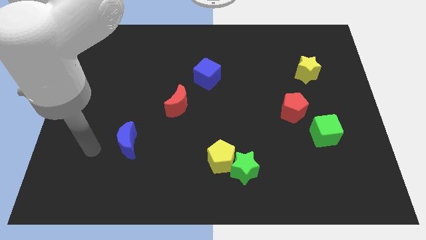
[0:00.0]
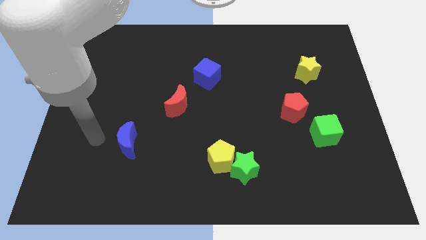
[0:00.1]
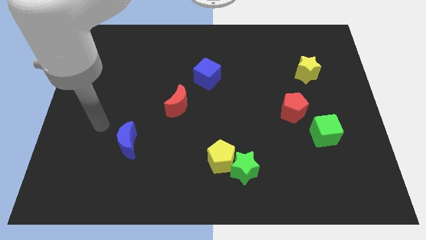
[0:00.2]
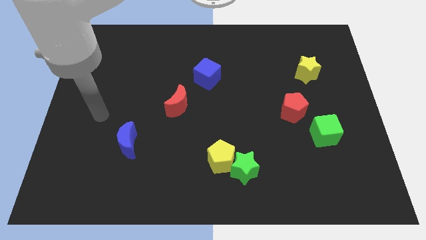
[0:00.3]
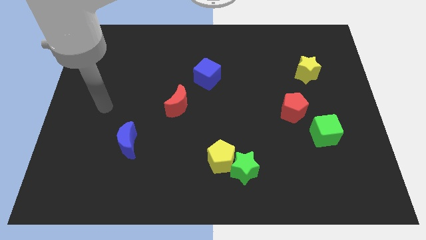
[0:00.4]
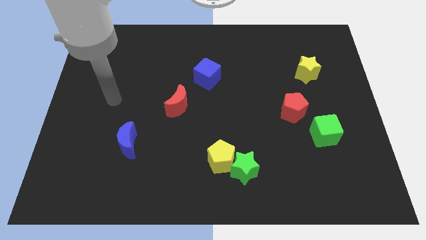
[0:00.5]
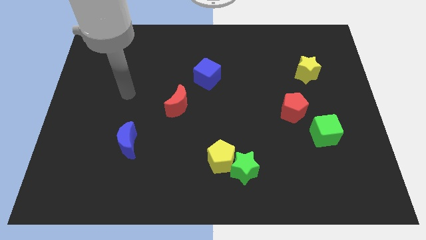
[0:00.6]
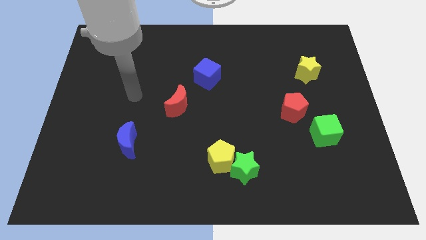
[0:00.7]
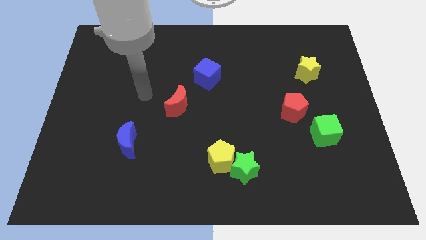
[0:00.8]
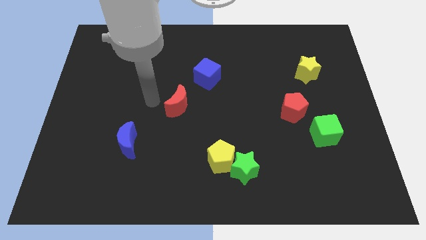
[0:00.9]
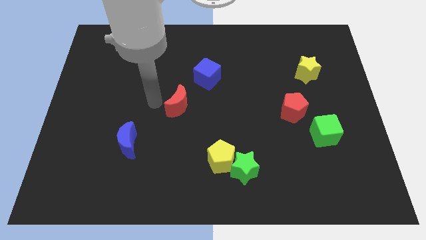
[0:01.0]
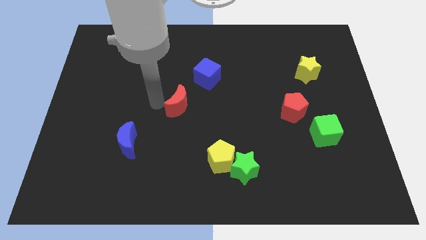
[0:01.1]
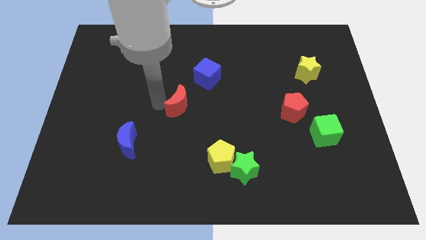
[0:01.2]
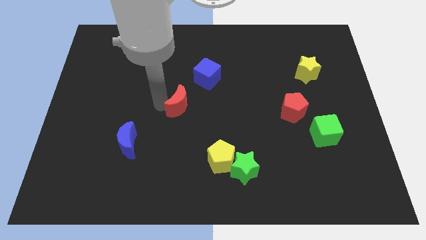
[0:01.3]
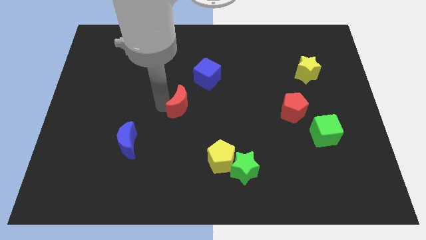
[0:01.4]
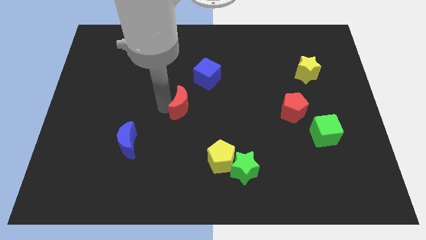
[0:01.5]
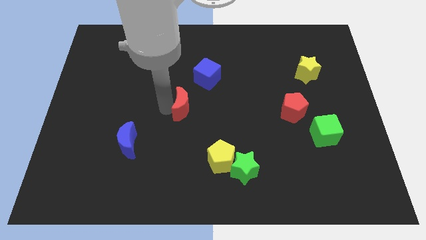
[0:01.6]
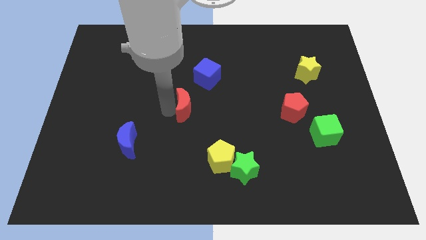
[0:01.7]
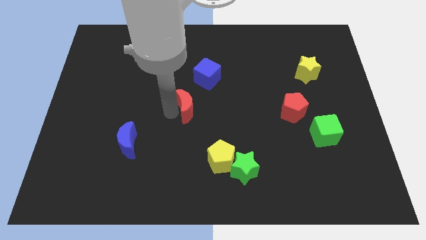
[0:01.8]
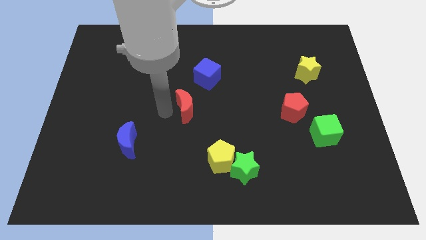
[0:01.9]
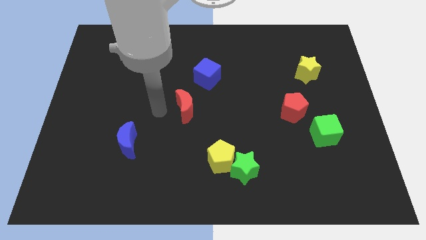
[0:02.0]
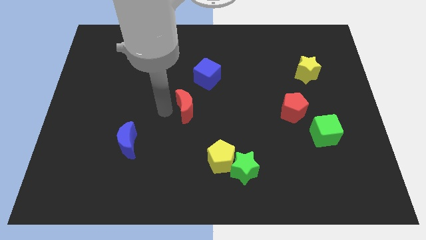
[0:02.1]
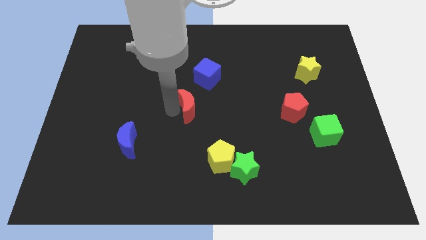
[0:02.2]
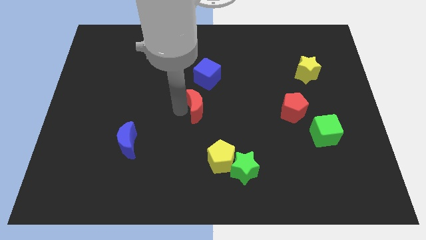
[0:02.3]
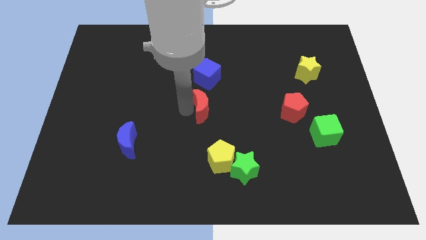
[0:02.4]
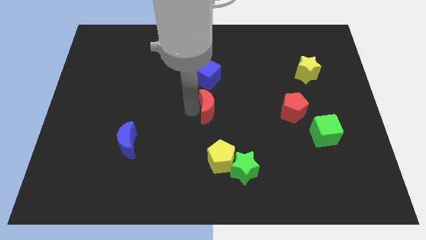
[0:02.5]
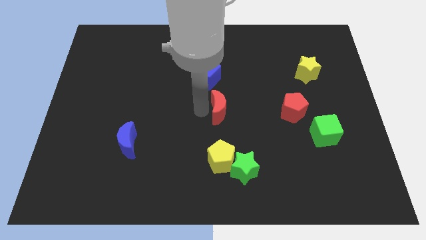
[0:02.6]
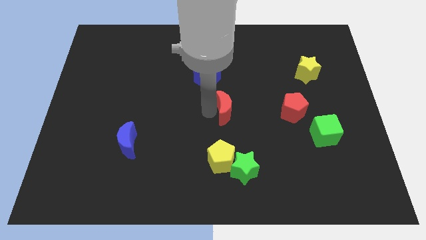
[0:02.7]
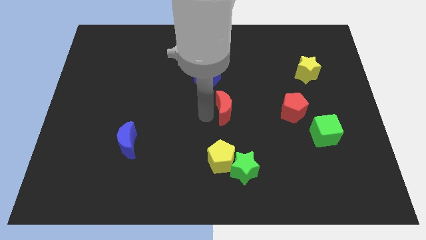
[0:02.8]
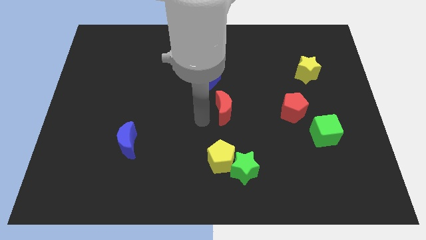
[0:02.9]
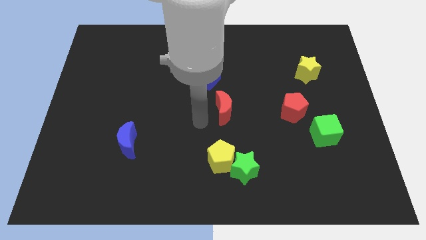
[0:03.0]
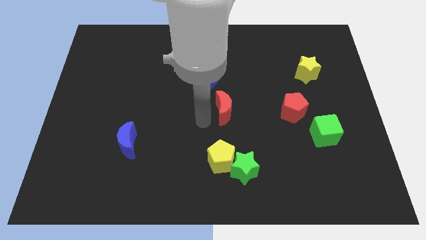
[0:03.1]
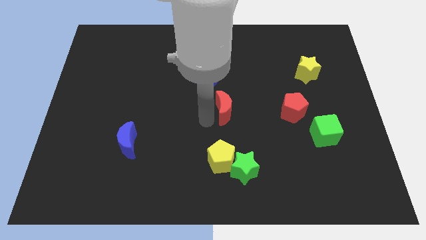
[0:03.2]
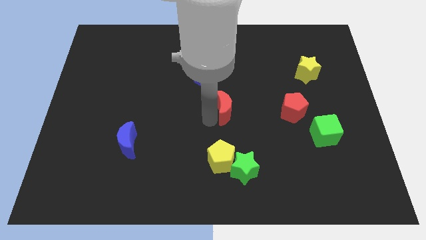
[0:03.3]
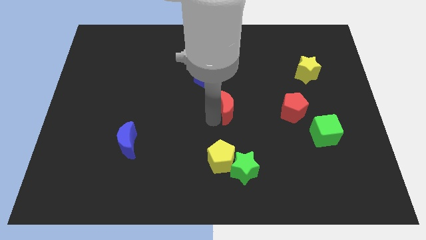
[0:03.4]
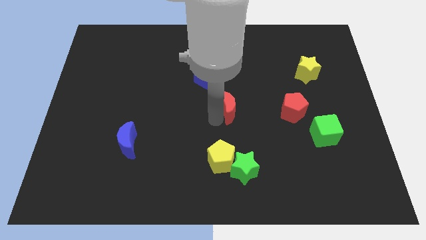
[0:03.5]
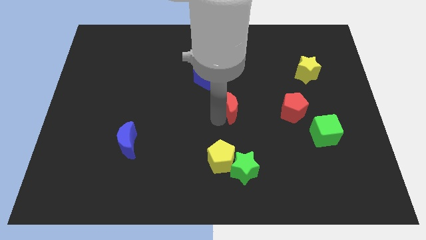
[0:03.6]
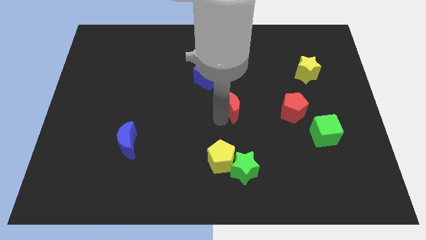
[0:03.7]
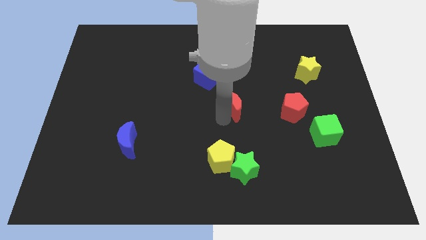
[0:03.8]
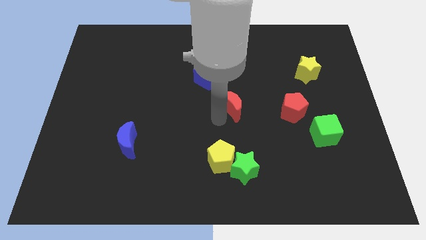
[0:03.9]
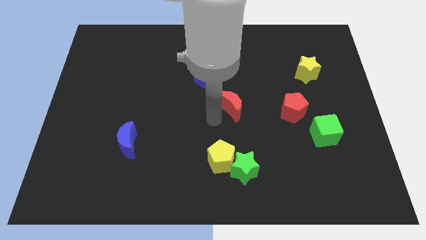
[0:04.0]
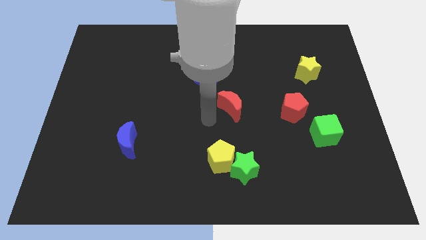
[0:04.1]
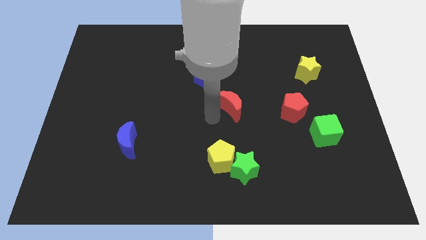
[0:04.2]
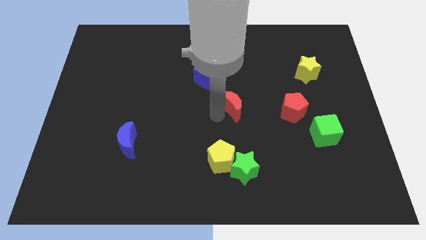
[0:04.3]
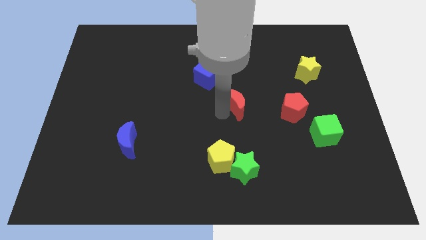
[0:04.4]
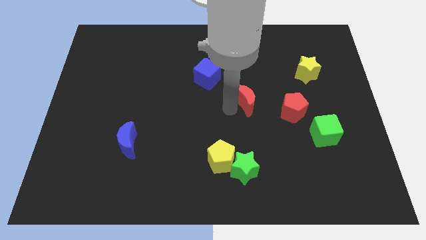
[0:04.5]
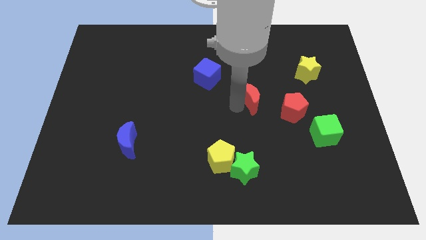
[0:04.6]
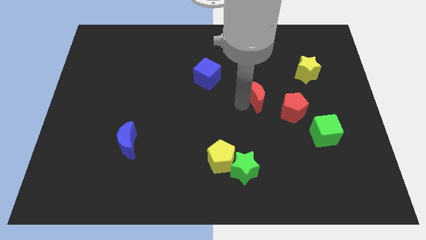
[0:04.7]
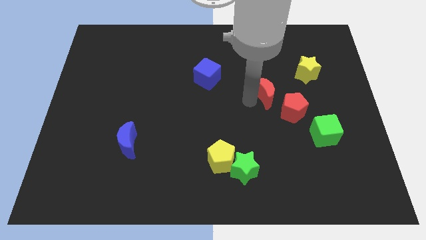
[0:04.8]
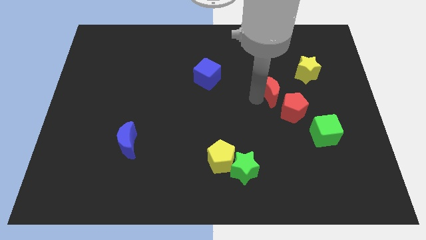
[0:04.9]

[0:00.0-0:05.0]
push the red moon to the bottom left of the yellow star

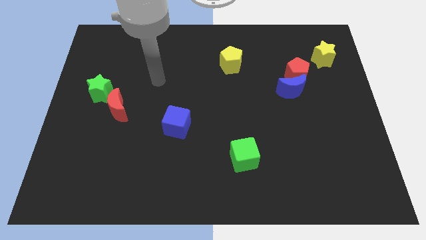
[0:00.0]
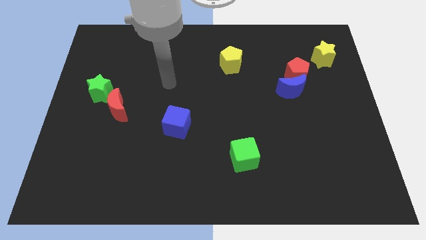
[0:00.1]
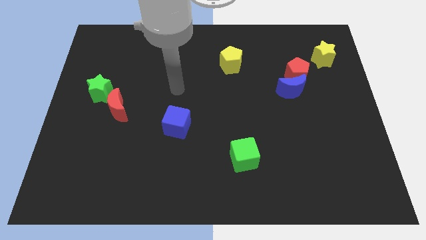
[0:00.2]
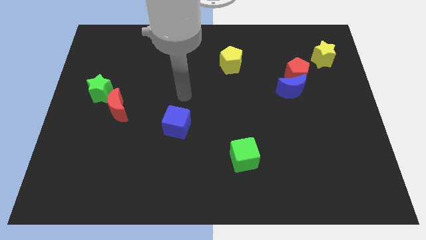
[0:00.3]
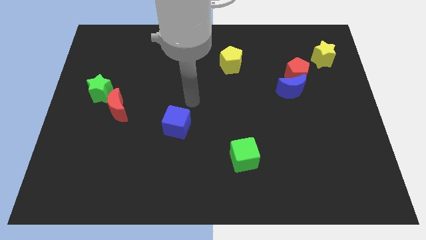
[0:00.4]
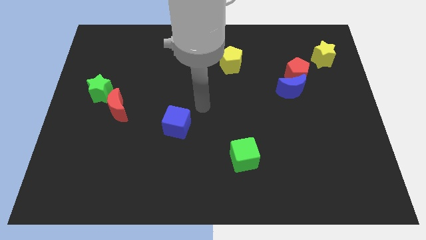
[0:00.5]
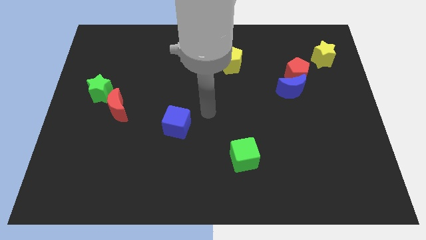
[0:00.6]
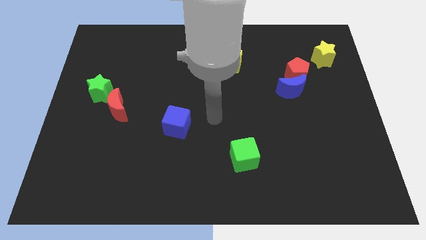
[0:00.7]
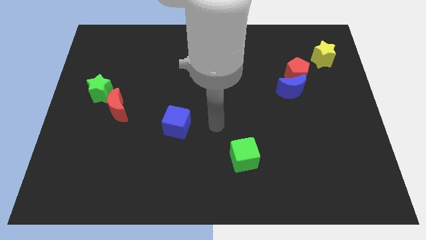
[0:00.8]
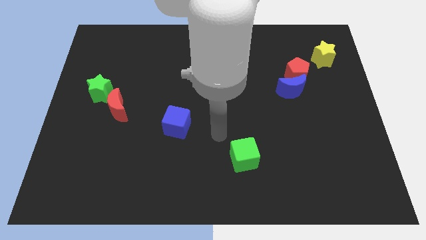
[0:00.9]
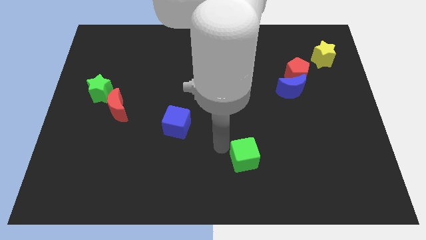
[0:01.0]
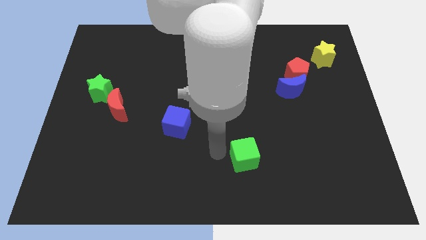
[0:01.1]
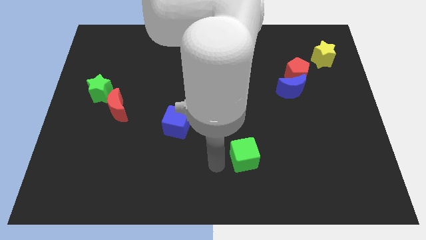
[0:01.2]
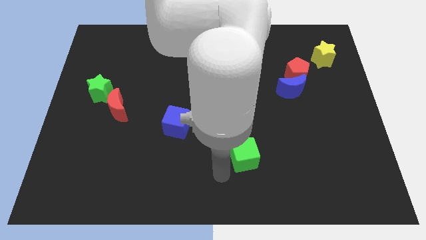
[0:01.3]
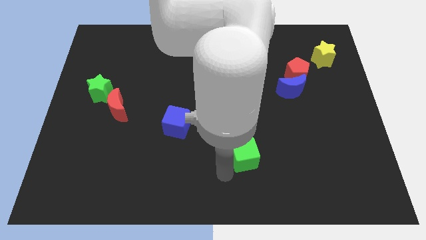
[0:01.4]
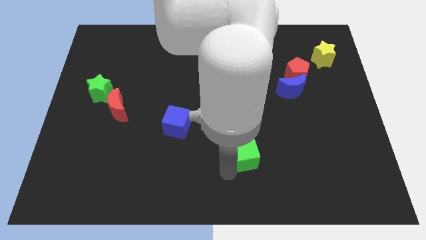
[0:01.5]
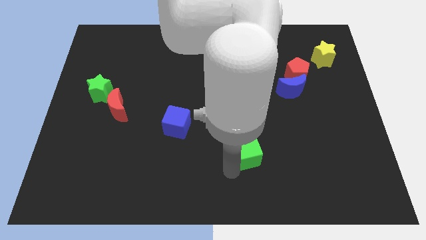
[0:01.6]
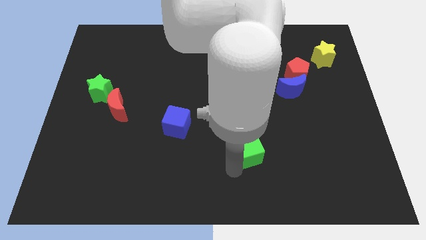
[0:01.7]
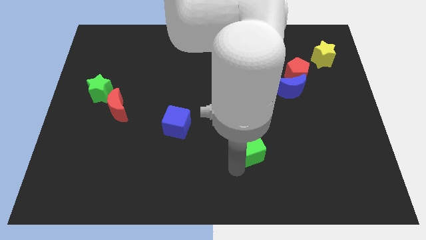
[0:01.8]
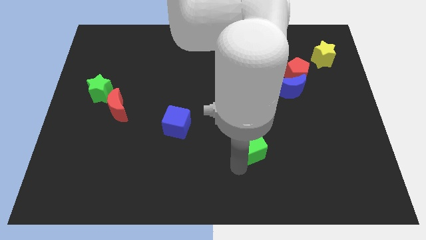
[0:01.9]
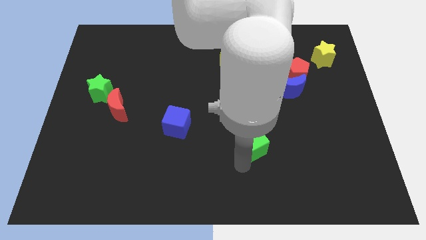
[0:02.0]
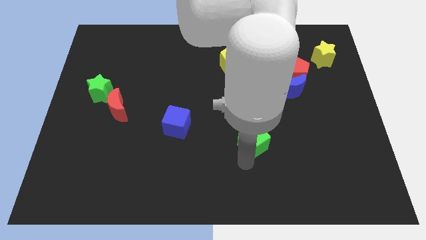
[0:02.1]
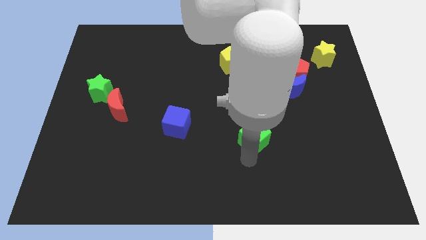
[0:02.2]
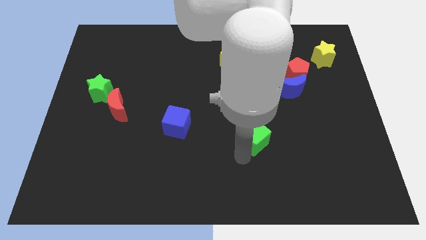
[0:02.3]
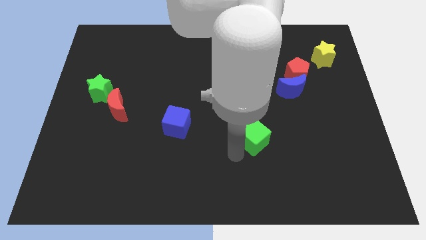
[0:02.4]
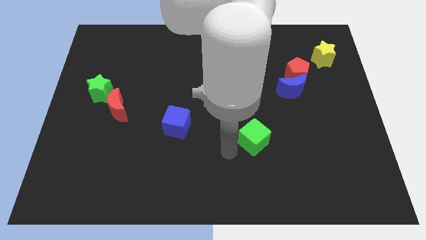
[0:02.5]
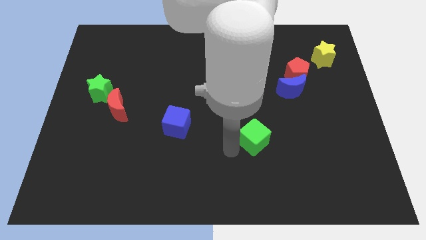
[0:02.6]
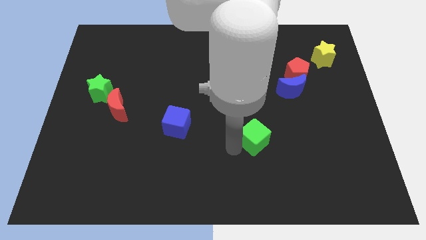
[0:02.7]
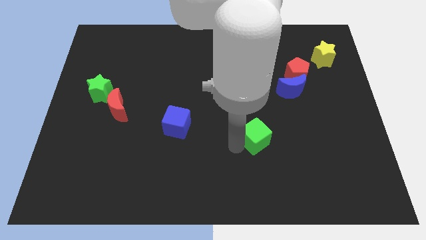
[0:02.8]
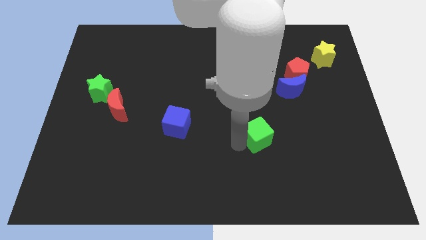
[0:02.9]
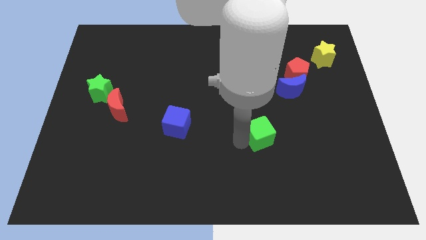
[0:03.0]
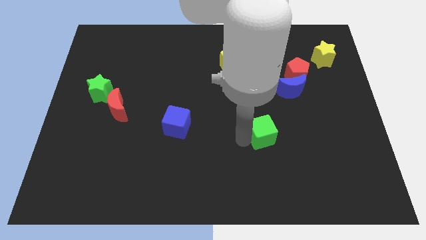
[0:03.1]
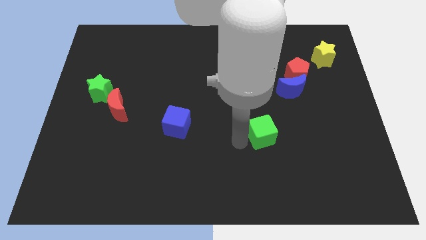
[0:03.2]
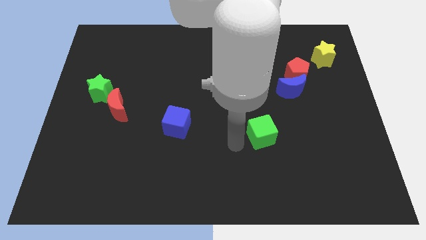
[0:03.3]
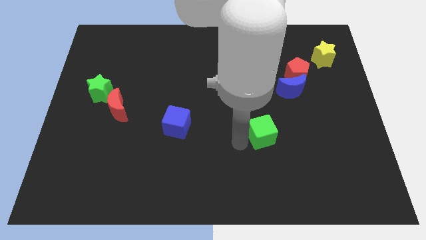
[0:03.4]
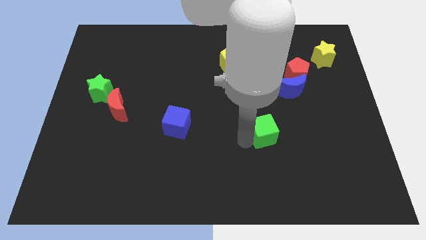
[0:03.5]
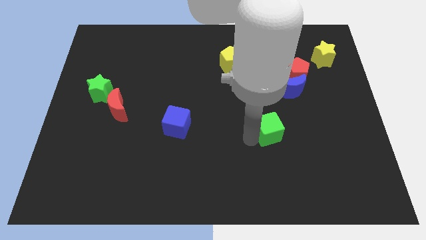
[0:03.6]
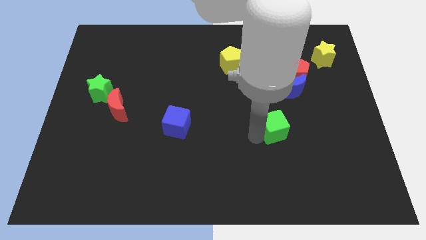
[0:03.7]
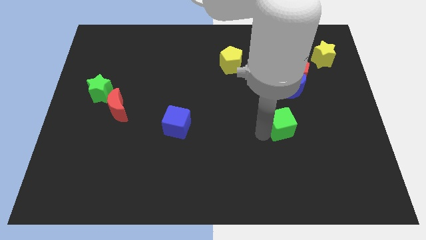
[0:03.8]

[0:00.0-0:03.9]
move the green cube to the bottom side of the blue moon
